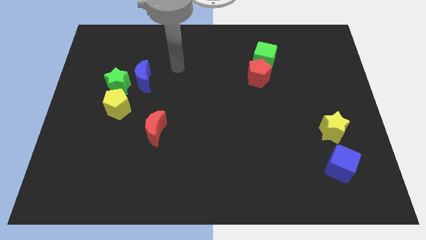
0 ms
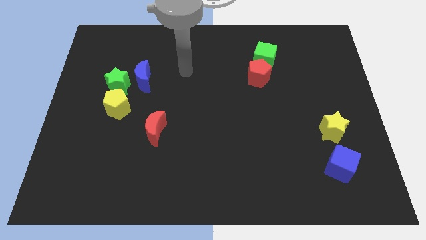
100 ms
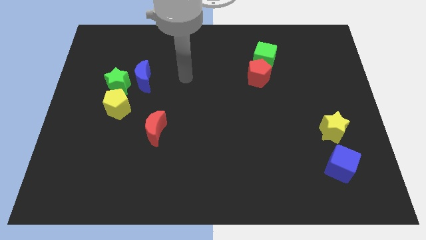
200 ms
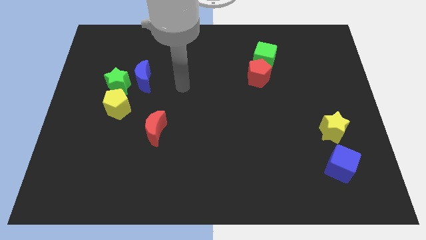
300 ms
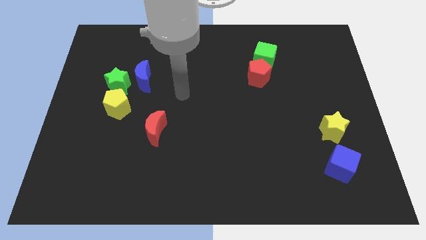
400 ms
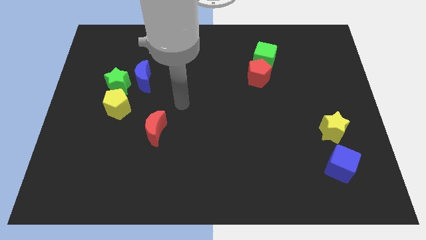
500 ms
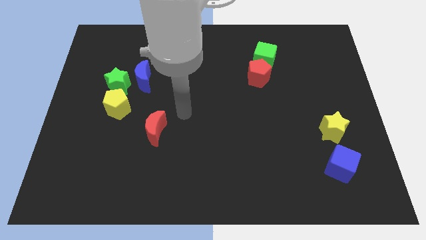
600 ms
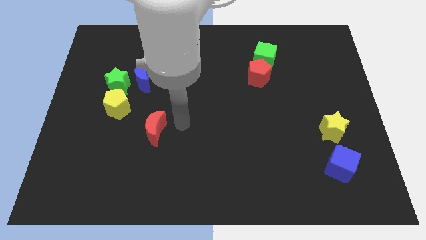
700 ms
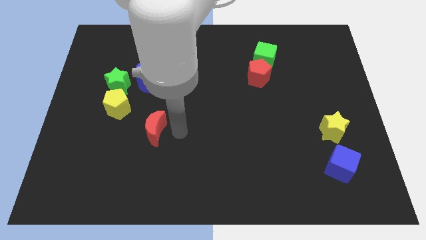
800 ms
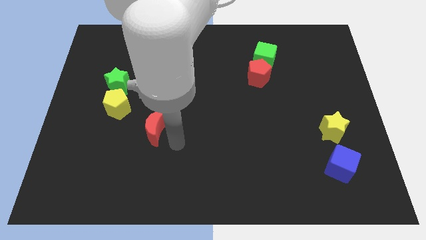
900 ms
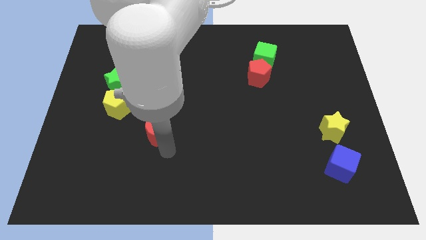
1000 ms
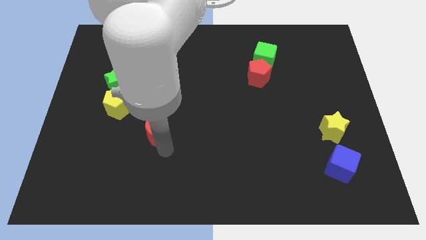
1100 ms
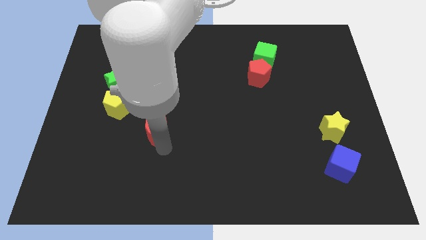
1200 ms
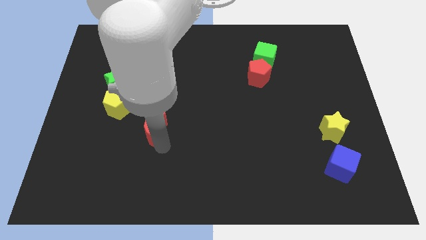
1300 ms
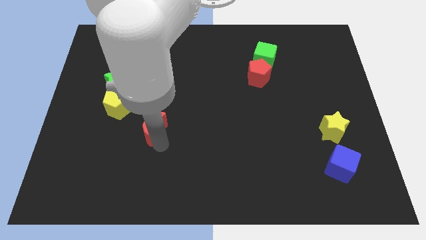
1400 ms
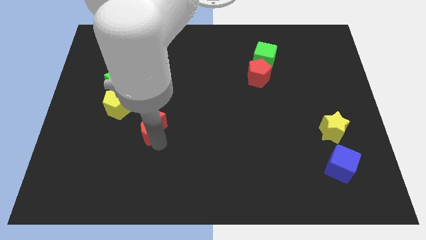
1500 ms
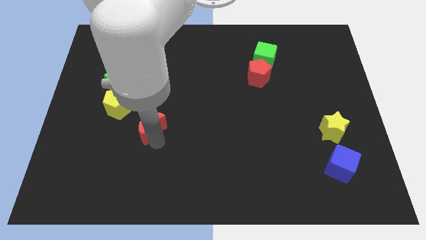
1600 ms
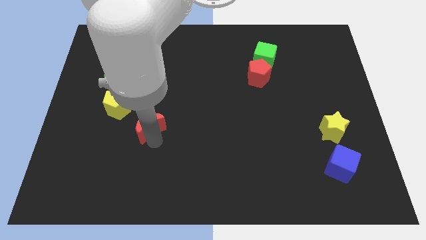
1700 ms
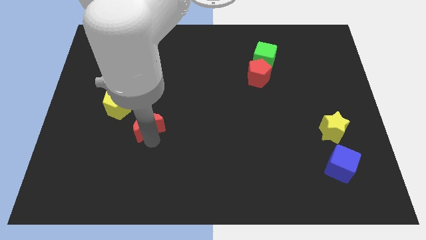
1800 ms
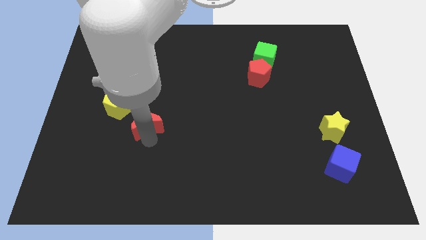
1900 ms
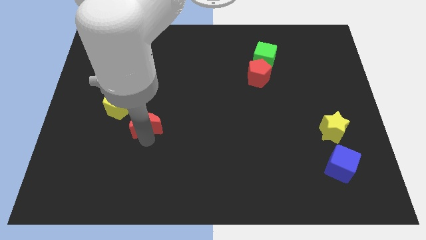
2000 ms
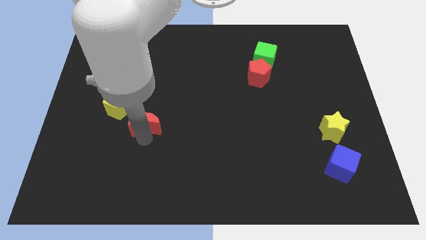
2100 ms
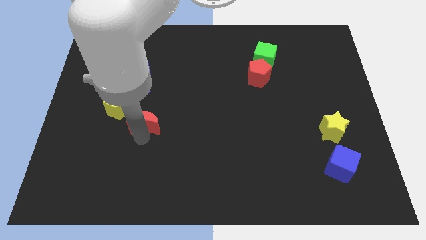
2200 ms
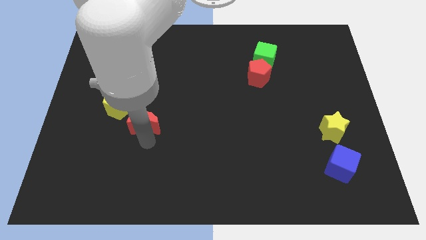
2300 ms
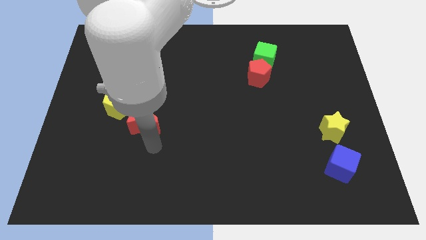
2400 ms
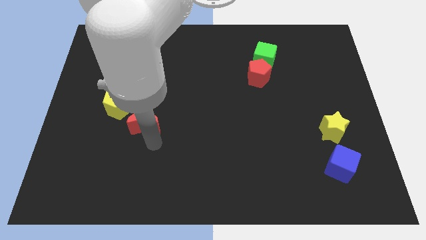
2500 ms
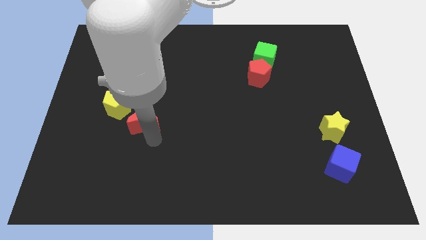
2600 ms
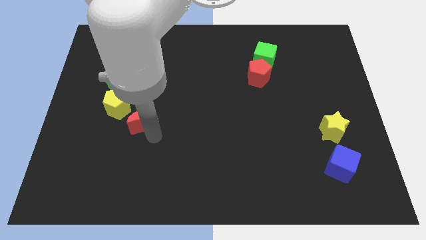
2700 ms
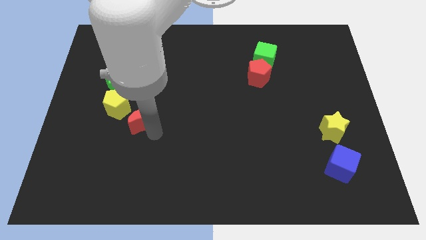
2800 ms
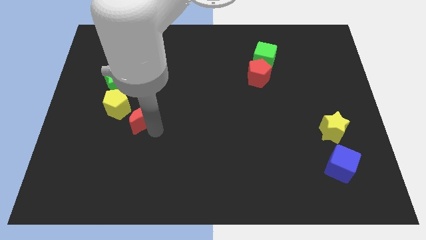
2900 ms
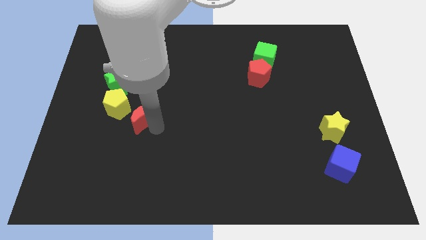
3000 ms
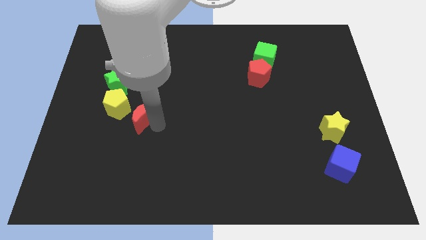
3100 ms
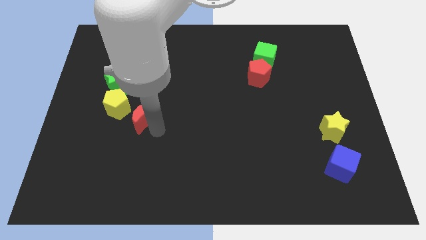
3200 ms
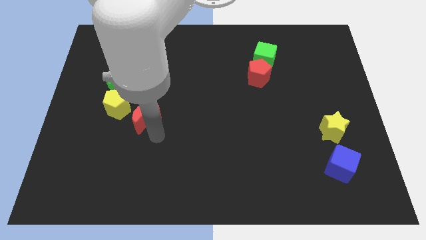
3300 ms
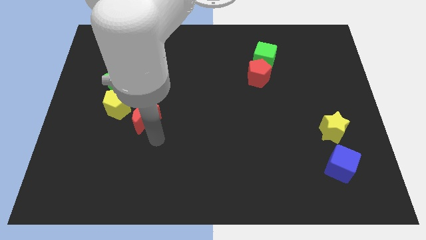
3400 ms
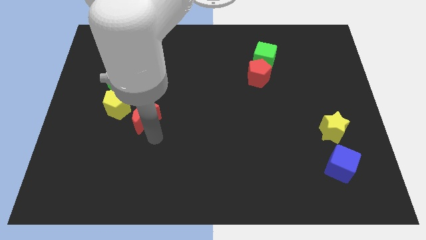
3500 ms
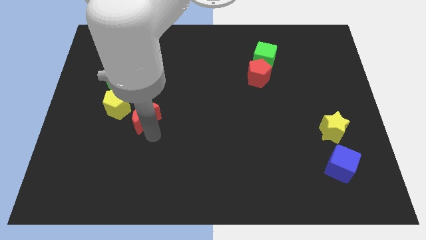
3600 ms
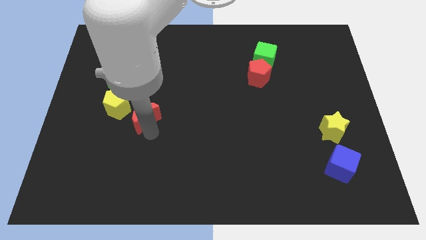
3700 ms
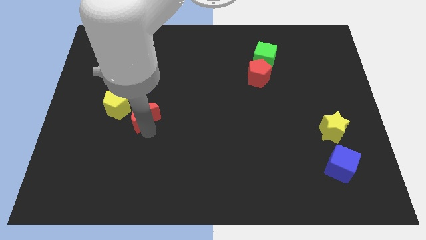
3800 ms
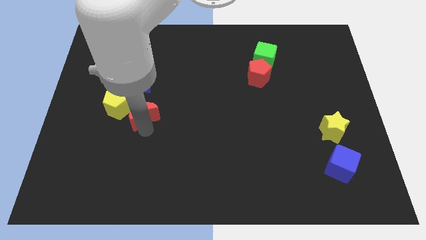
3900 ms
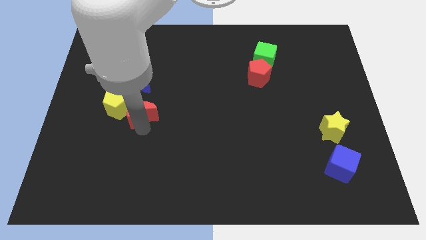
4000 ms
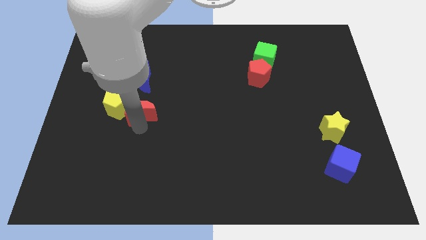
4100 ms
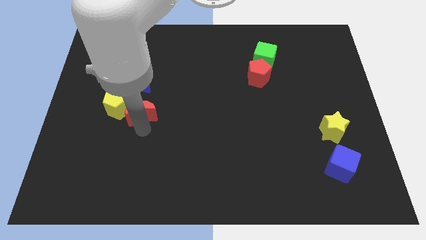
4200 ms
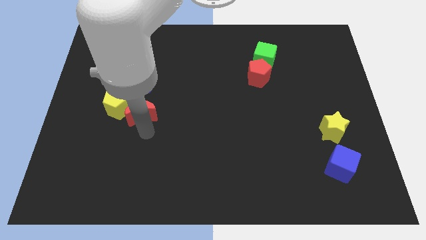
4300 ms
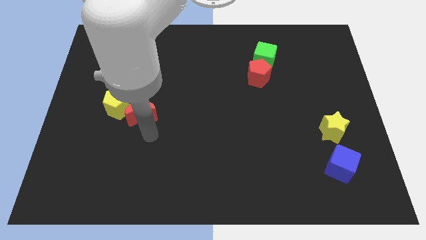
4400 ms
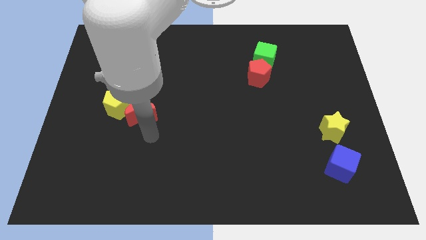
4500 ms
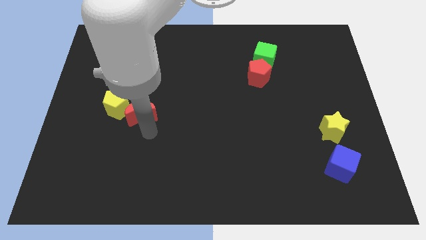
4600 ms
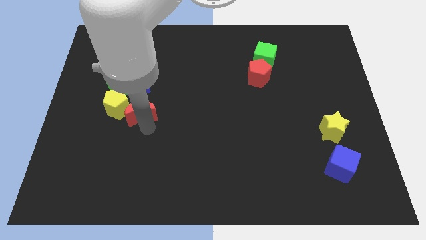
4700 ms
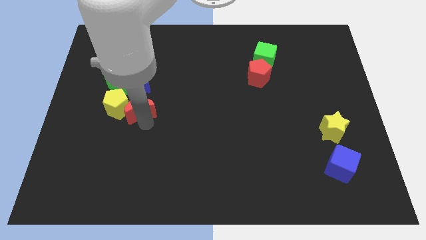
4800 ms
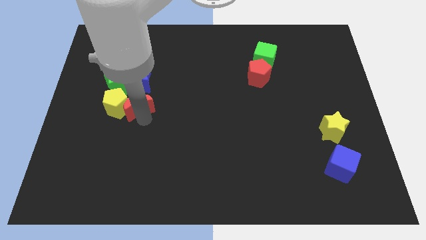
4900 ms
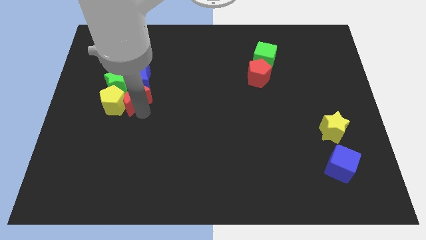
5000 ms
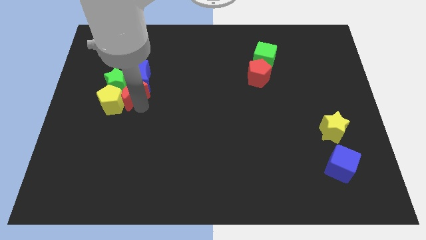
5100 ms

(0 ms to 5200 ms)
move the red moon towards the green star

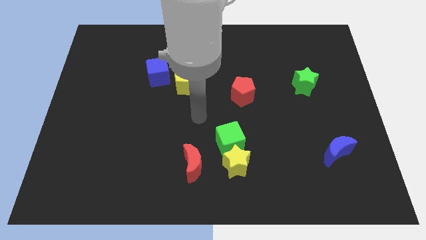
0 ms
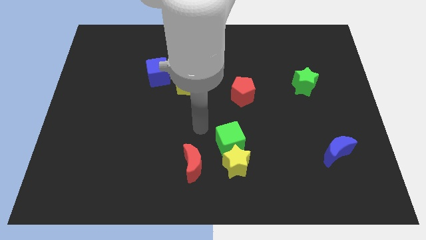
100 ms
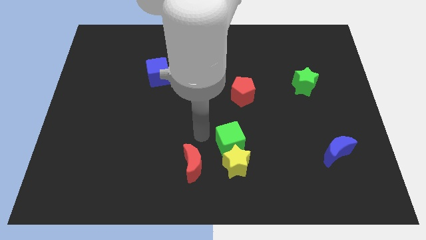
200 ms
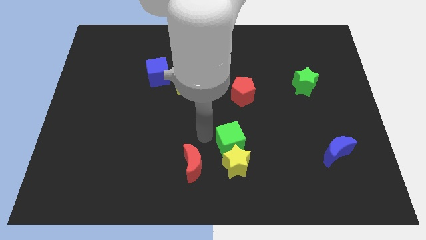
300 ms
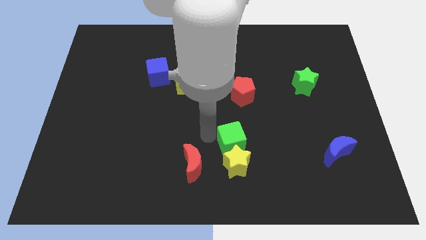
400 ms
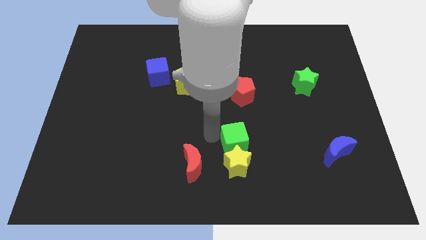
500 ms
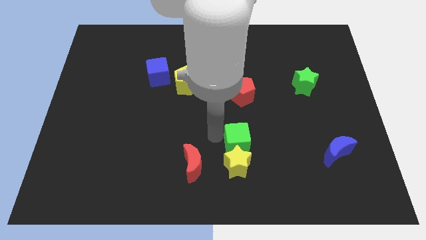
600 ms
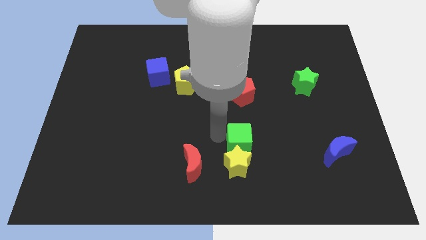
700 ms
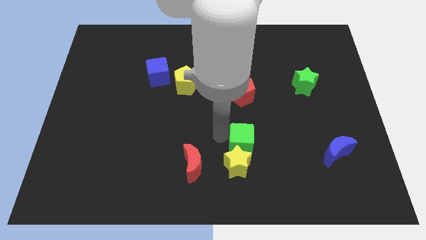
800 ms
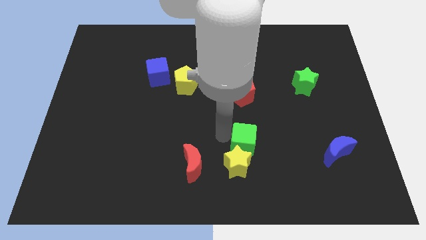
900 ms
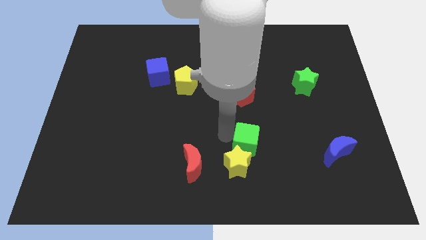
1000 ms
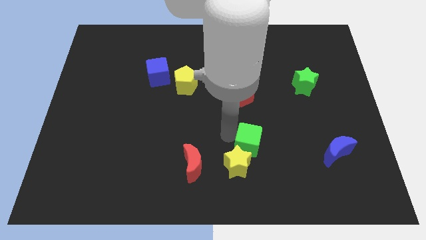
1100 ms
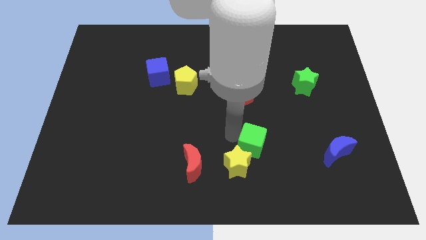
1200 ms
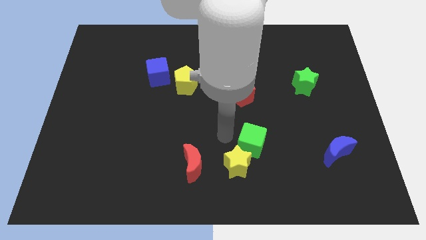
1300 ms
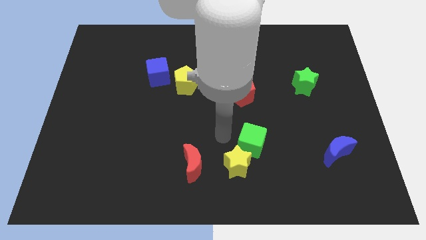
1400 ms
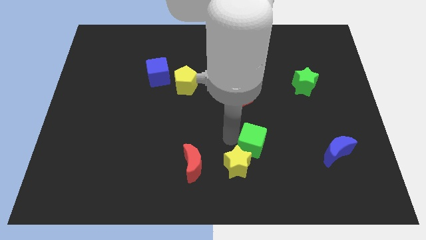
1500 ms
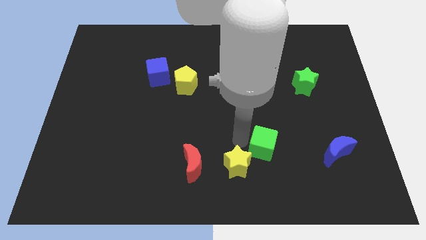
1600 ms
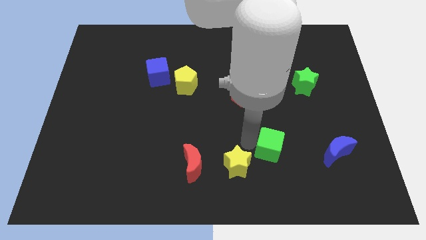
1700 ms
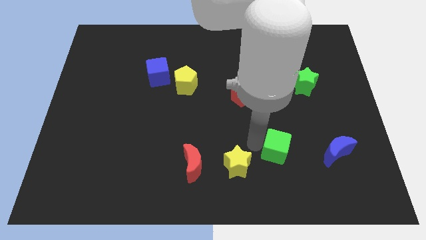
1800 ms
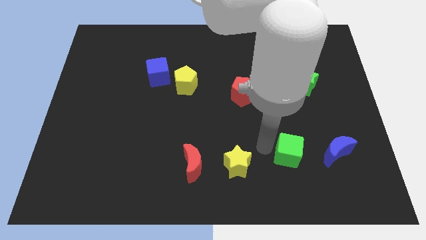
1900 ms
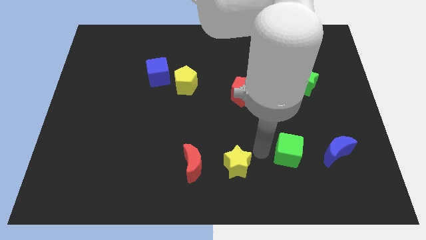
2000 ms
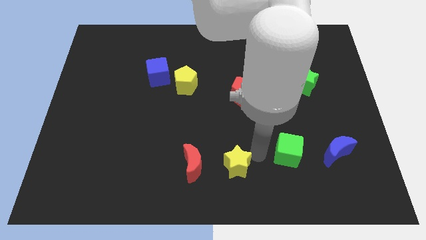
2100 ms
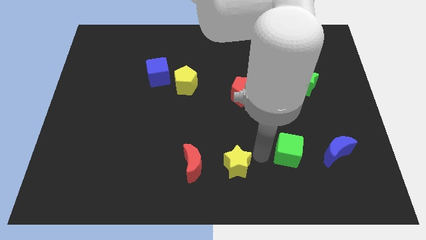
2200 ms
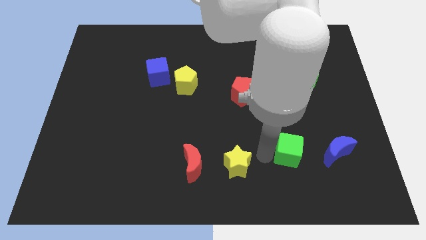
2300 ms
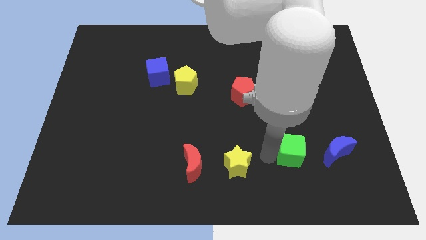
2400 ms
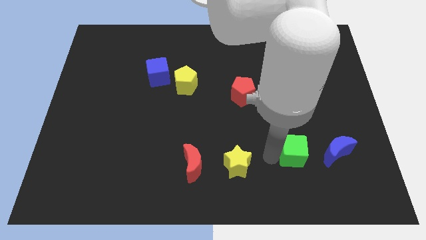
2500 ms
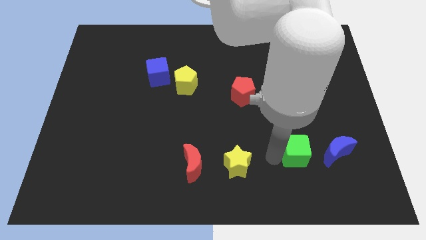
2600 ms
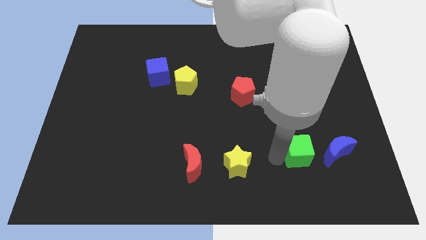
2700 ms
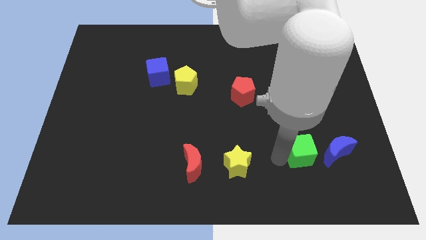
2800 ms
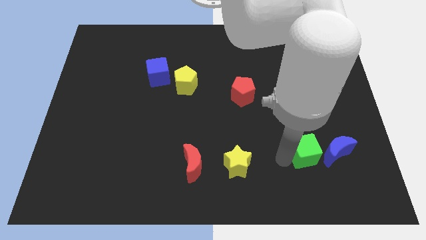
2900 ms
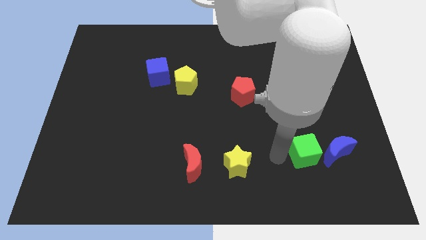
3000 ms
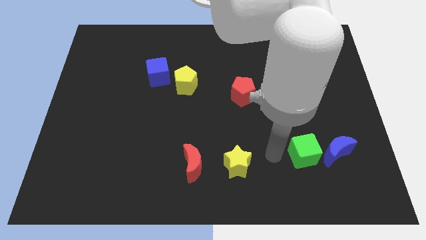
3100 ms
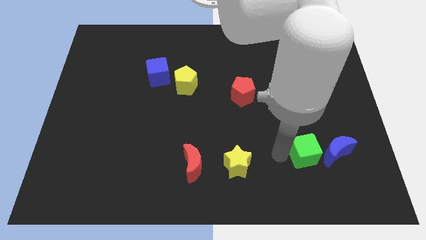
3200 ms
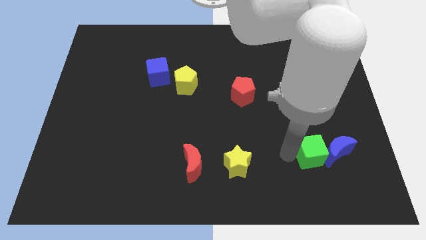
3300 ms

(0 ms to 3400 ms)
move the green cube next to the blue moon

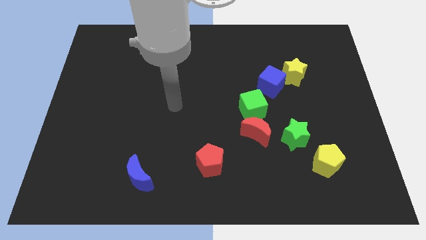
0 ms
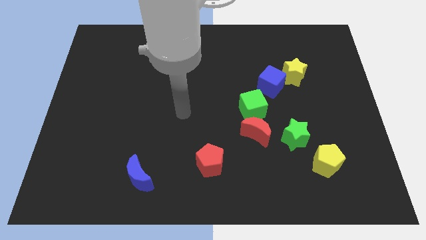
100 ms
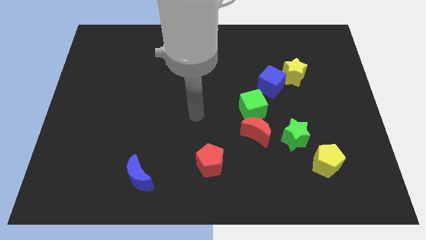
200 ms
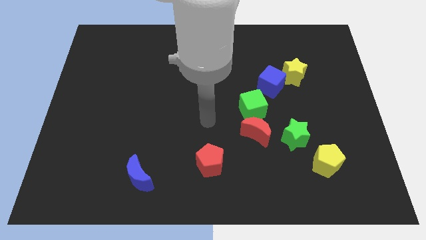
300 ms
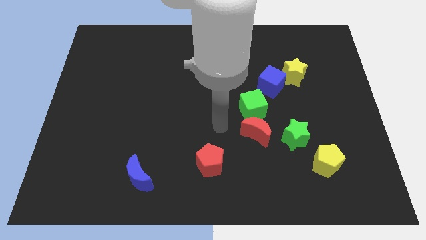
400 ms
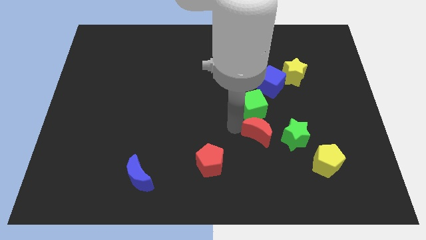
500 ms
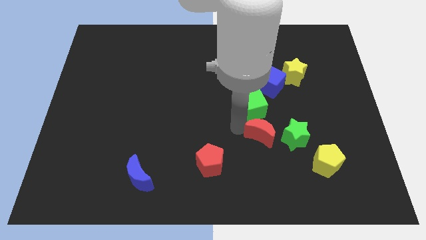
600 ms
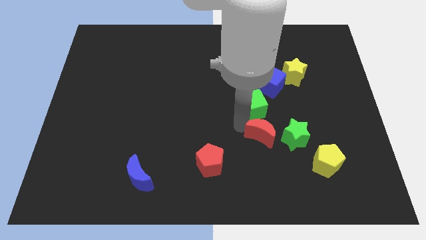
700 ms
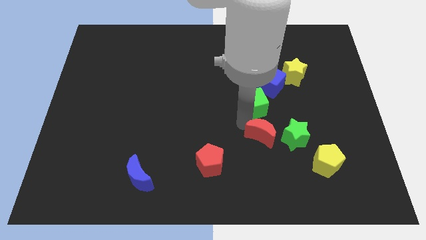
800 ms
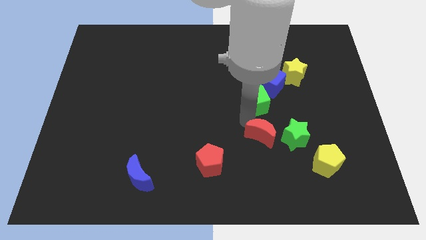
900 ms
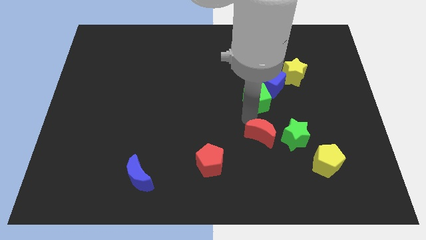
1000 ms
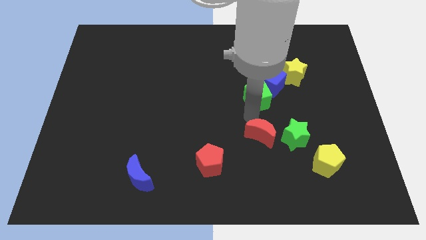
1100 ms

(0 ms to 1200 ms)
slide the green cube next to the blue cube
